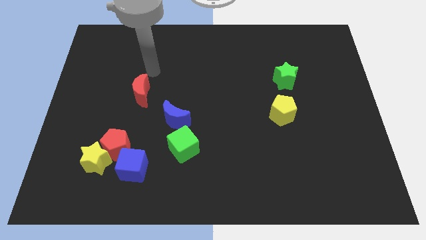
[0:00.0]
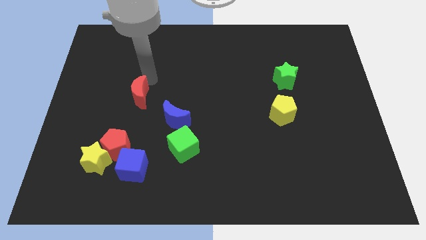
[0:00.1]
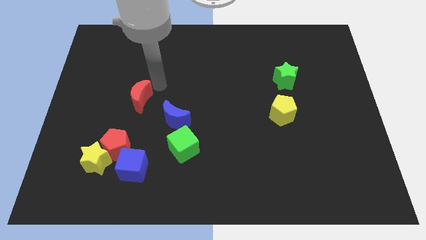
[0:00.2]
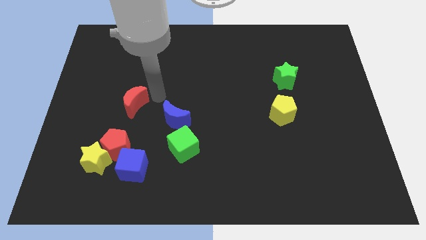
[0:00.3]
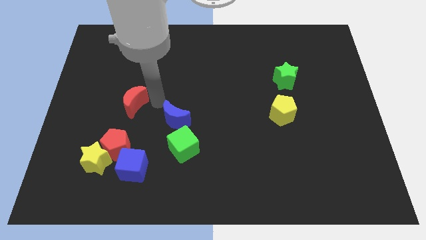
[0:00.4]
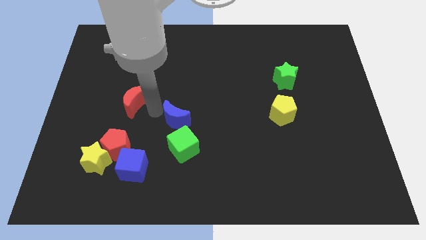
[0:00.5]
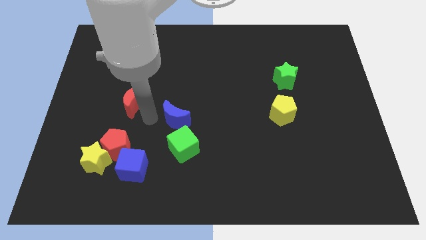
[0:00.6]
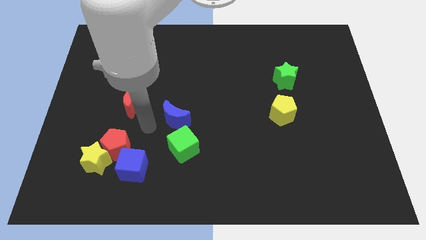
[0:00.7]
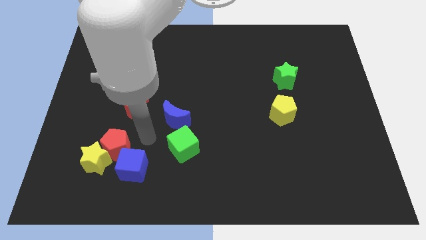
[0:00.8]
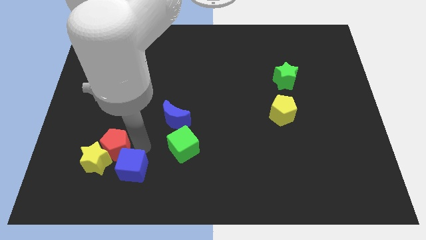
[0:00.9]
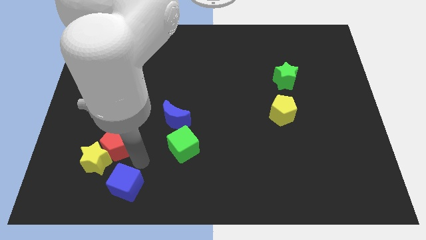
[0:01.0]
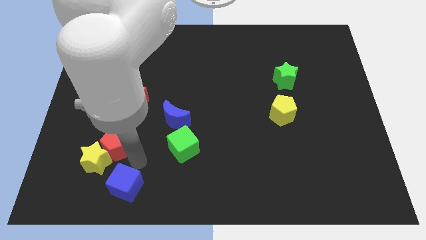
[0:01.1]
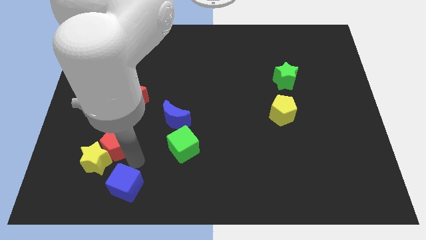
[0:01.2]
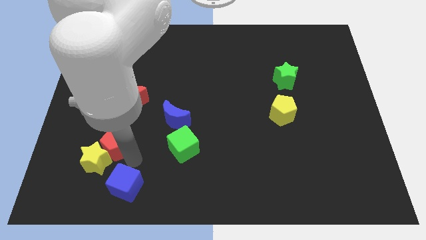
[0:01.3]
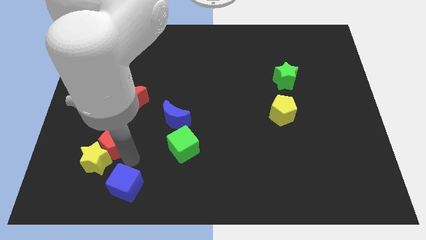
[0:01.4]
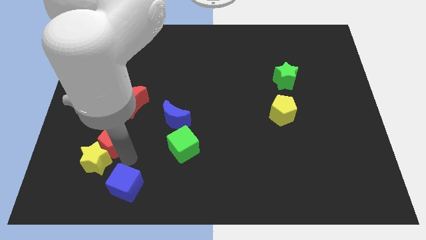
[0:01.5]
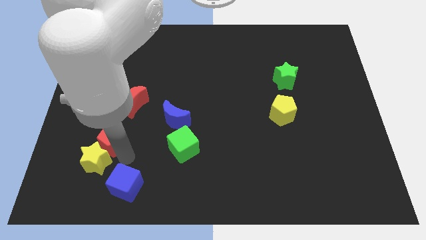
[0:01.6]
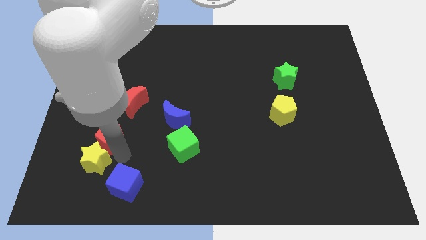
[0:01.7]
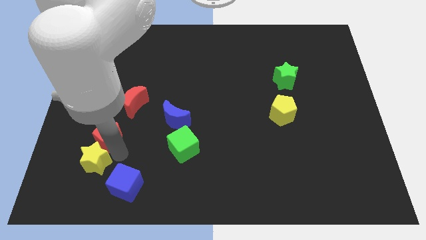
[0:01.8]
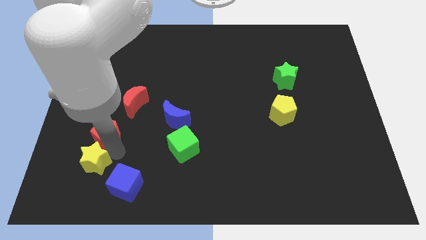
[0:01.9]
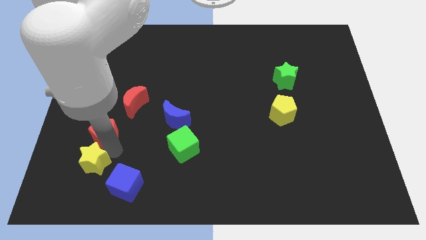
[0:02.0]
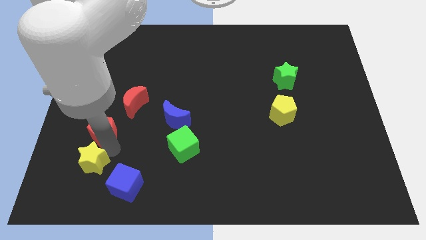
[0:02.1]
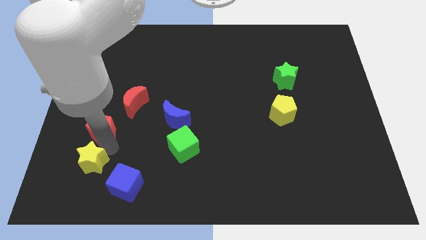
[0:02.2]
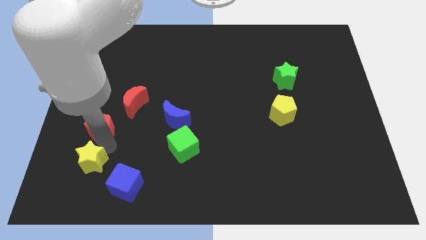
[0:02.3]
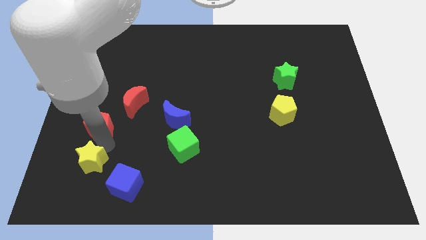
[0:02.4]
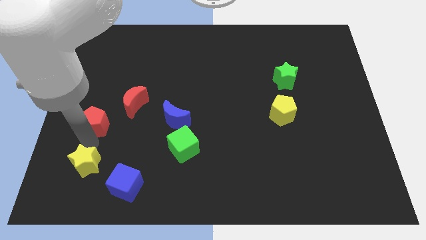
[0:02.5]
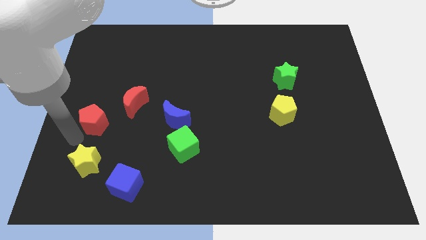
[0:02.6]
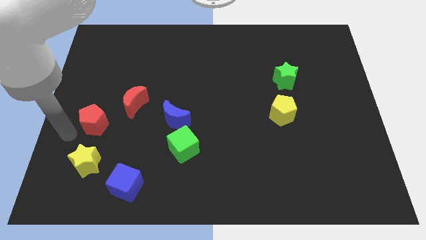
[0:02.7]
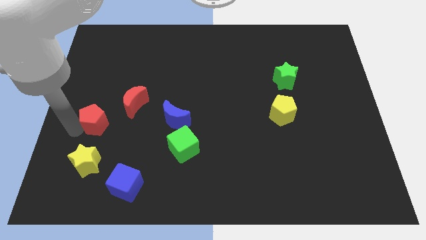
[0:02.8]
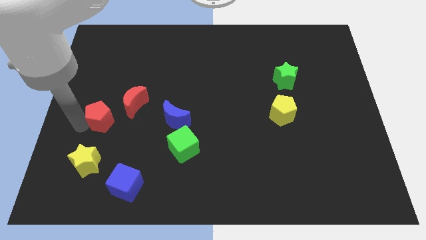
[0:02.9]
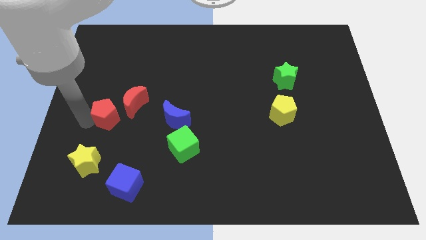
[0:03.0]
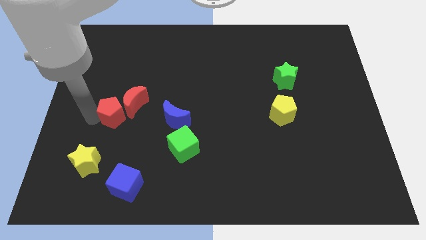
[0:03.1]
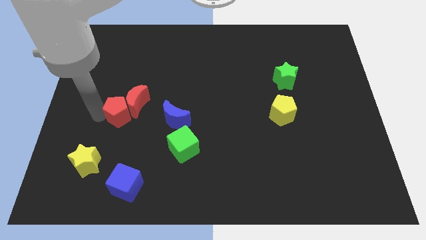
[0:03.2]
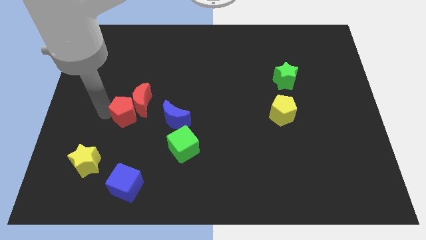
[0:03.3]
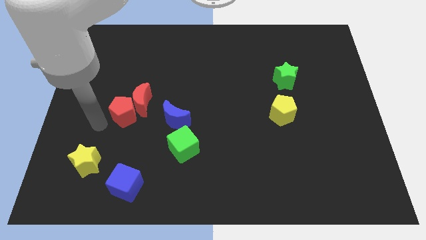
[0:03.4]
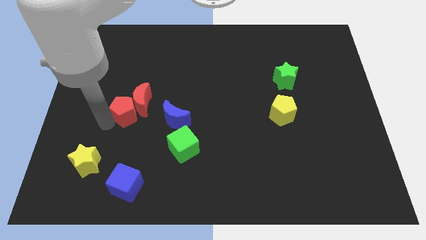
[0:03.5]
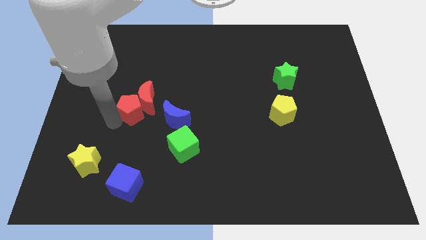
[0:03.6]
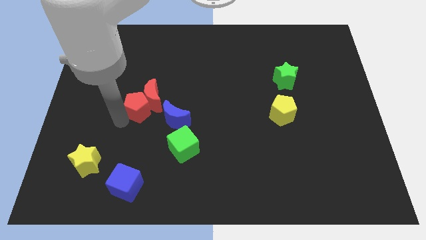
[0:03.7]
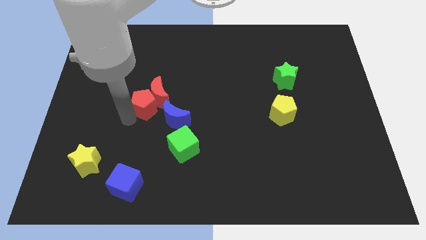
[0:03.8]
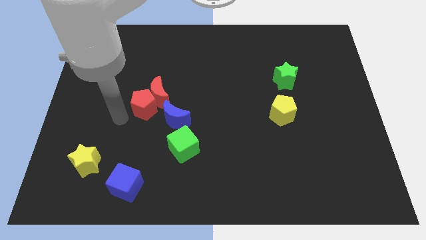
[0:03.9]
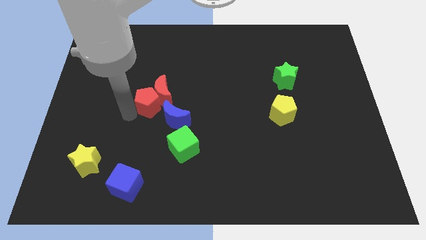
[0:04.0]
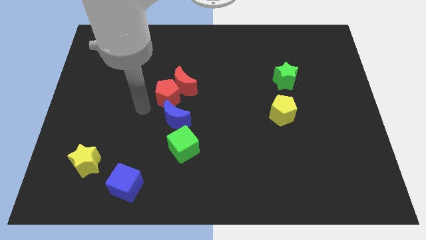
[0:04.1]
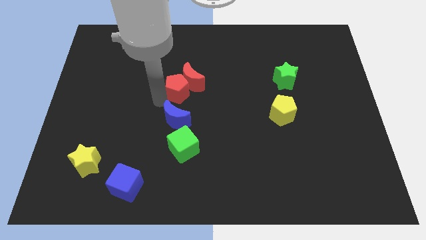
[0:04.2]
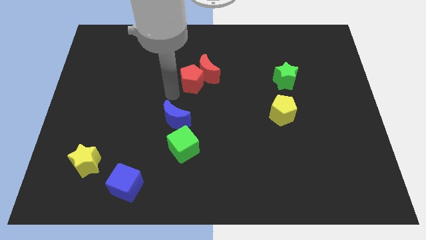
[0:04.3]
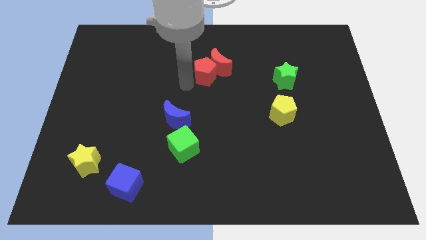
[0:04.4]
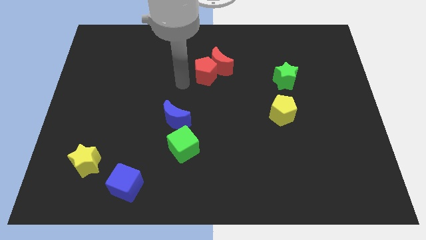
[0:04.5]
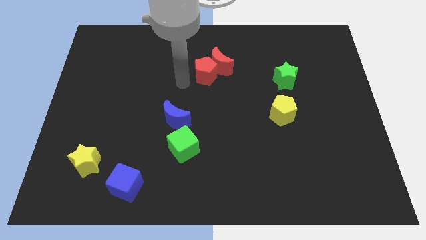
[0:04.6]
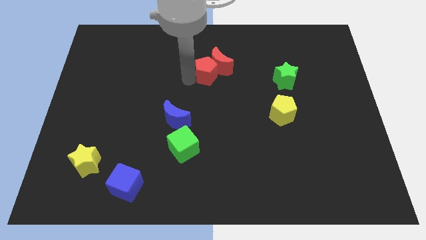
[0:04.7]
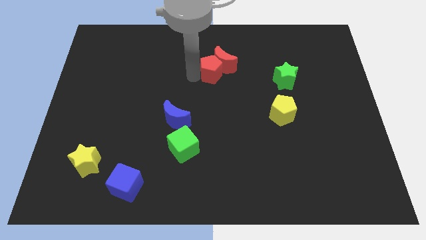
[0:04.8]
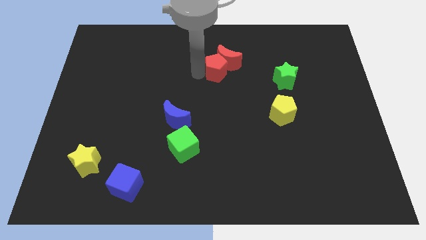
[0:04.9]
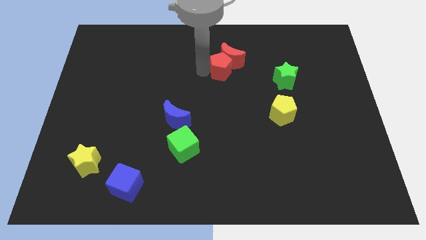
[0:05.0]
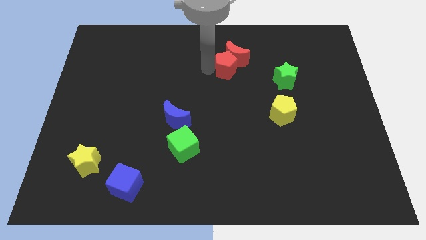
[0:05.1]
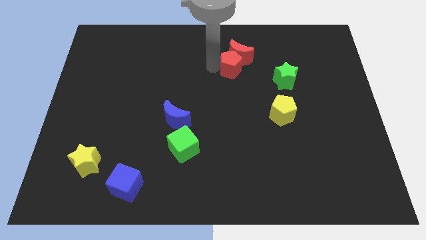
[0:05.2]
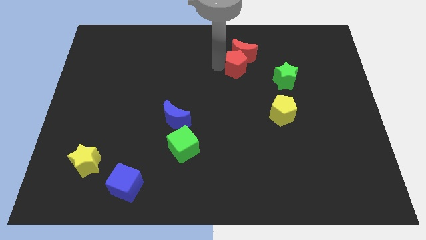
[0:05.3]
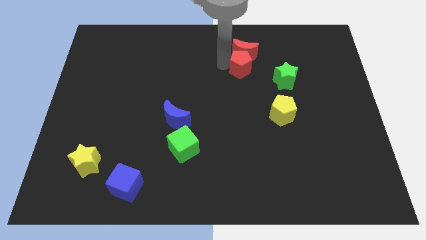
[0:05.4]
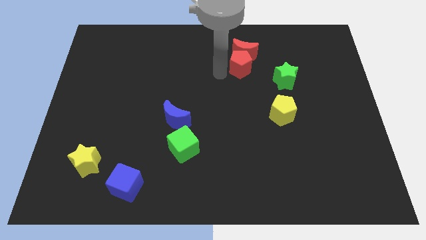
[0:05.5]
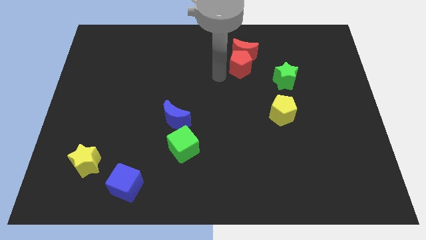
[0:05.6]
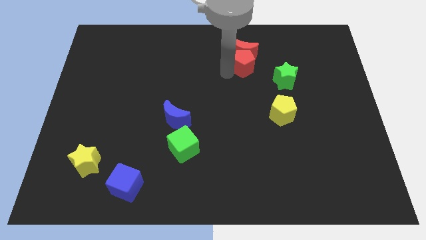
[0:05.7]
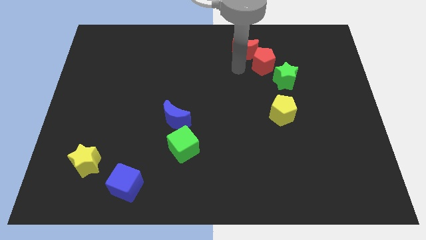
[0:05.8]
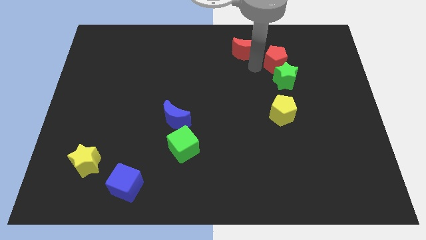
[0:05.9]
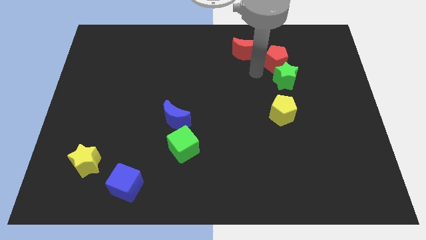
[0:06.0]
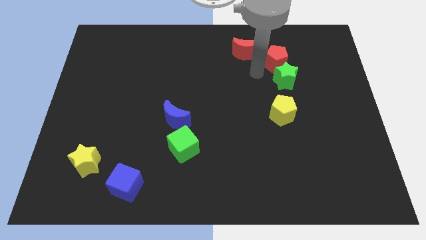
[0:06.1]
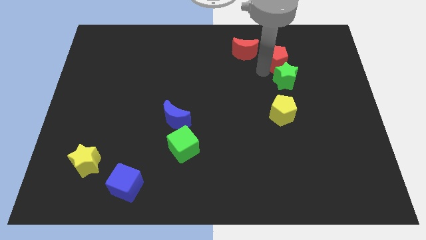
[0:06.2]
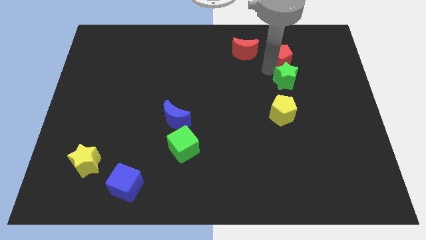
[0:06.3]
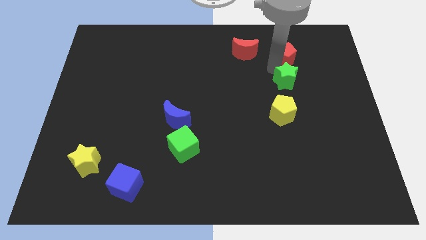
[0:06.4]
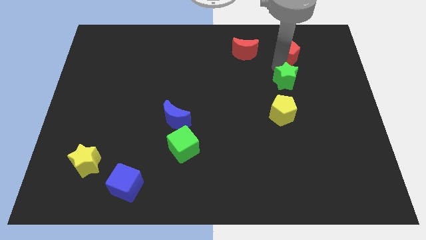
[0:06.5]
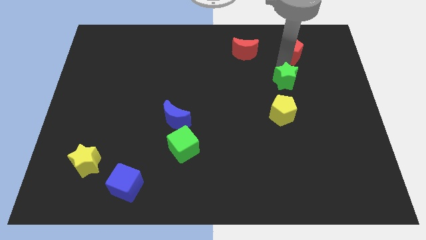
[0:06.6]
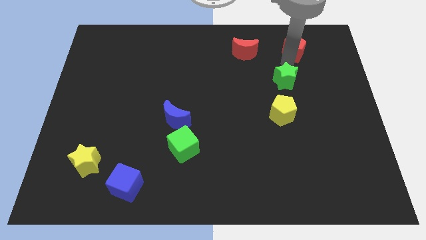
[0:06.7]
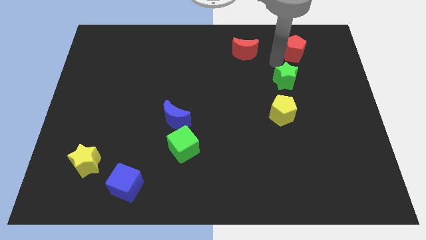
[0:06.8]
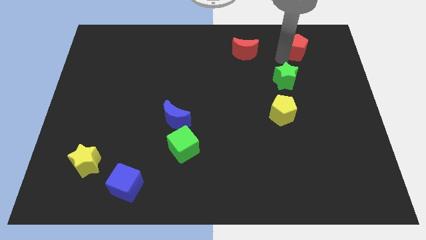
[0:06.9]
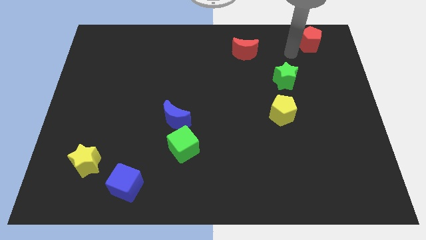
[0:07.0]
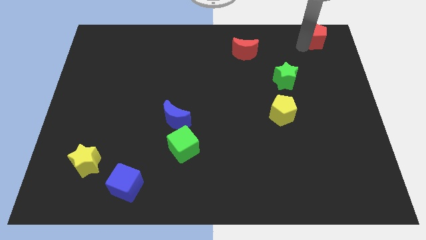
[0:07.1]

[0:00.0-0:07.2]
push the red pentagon to the top right of the board
